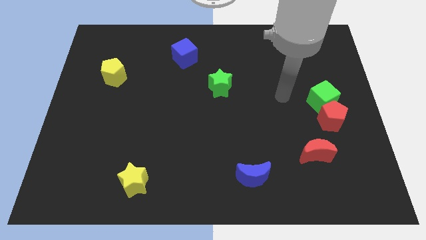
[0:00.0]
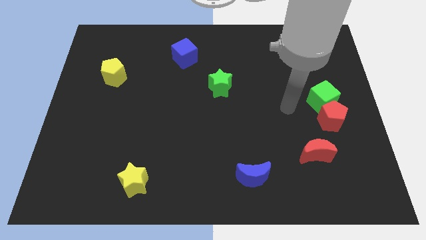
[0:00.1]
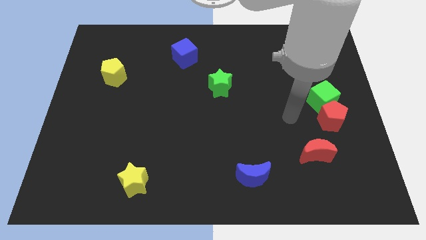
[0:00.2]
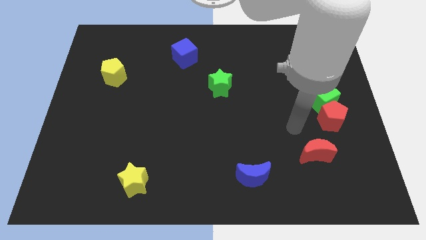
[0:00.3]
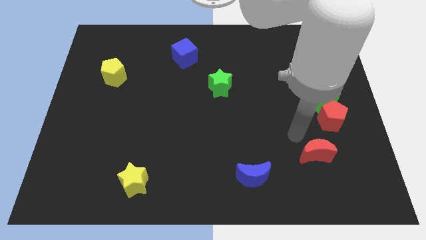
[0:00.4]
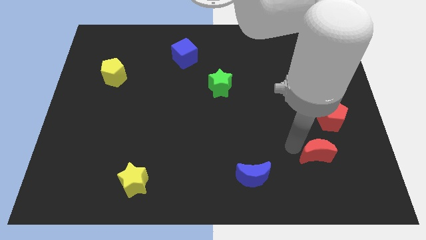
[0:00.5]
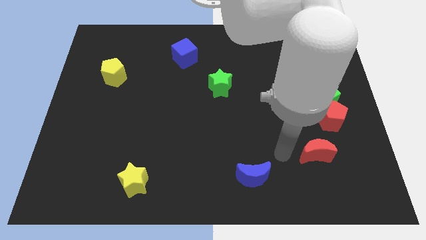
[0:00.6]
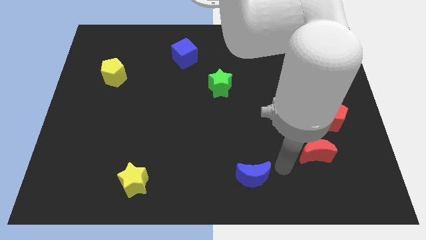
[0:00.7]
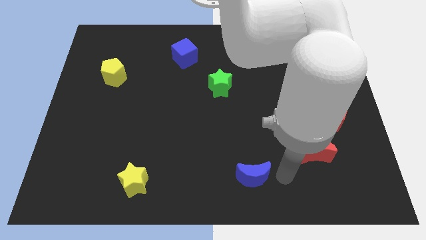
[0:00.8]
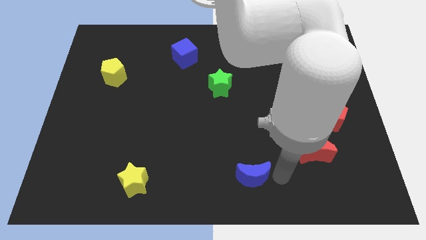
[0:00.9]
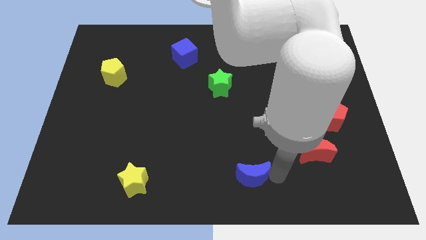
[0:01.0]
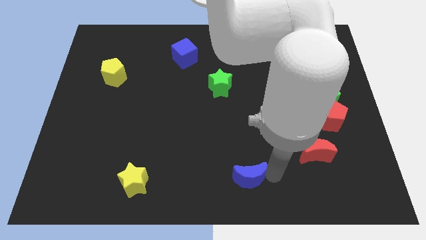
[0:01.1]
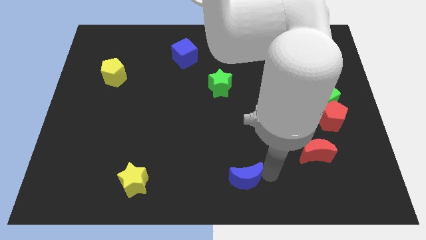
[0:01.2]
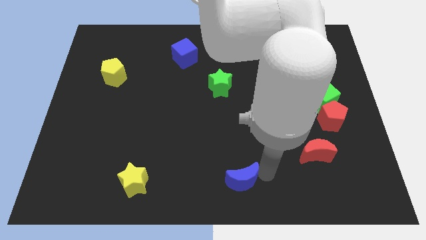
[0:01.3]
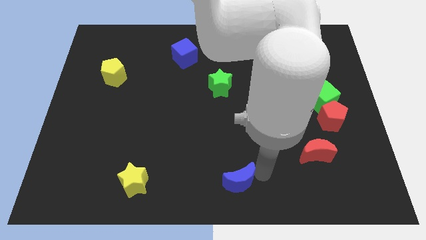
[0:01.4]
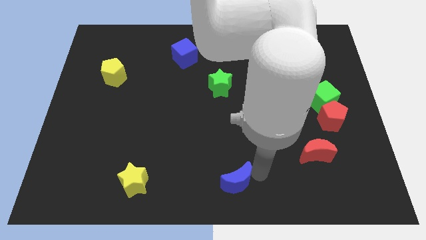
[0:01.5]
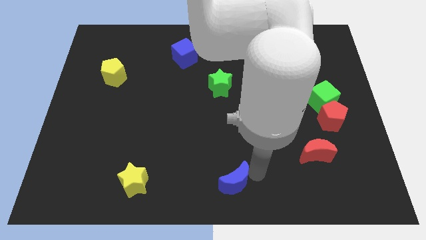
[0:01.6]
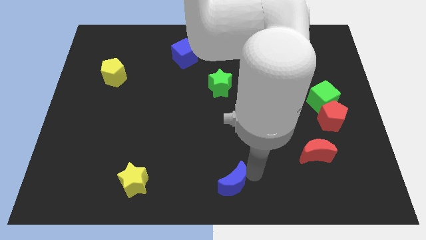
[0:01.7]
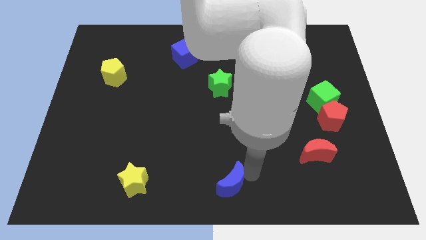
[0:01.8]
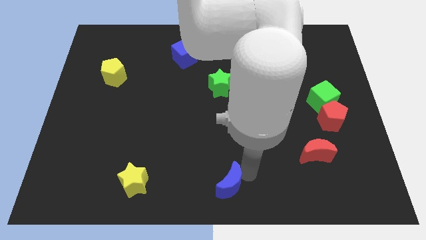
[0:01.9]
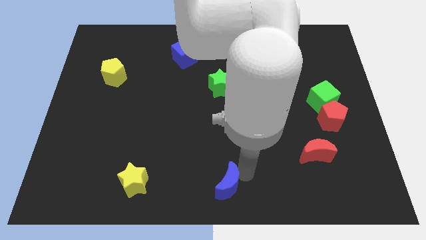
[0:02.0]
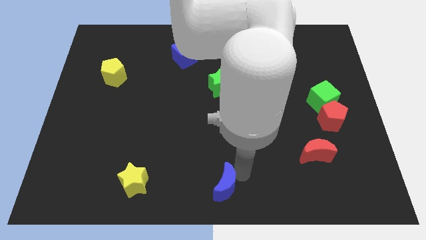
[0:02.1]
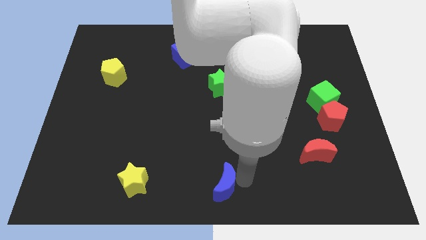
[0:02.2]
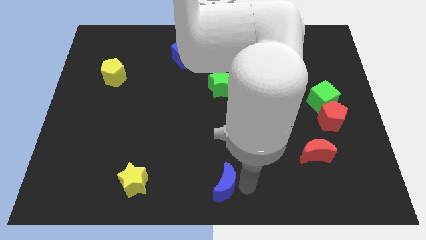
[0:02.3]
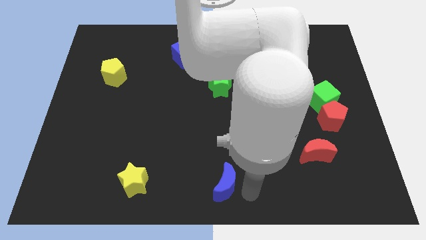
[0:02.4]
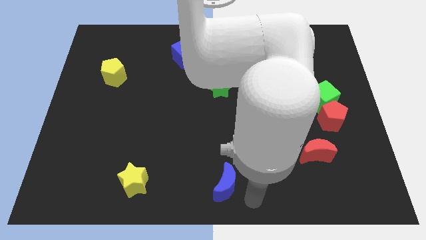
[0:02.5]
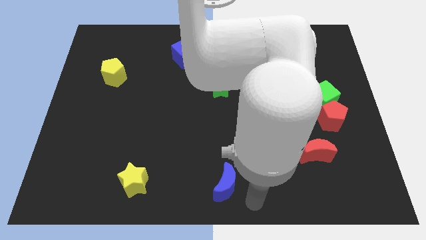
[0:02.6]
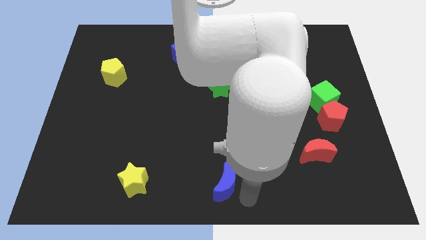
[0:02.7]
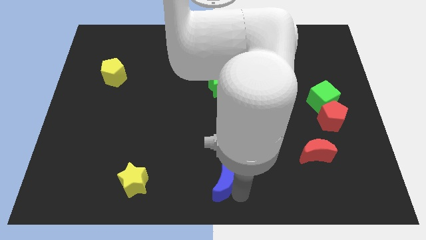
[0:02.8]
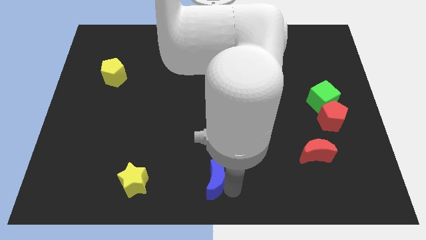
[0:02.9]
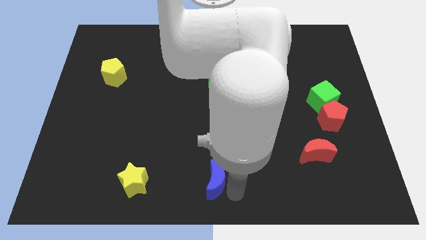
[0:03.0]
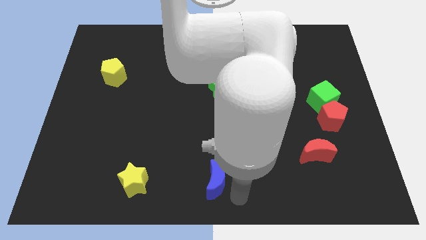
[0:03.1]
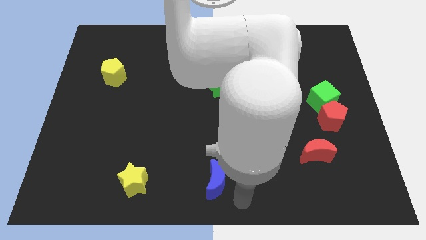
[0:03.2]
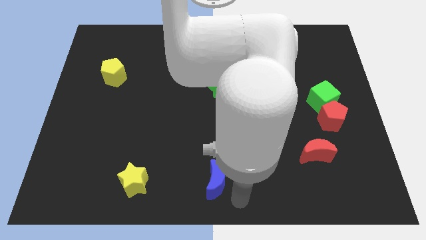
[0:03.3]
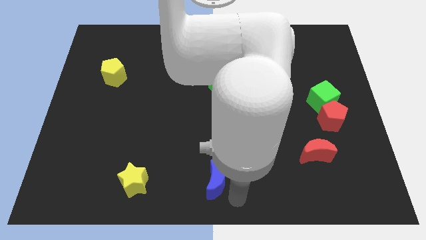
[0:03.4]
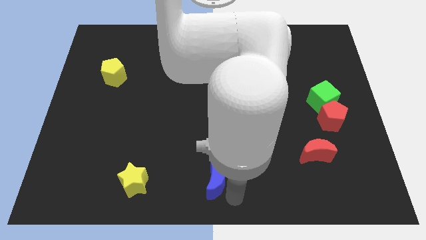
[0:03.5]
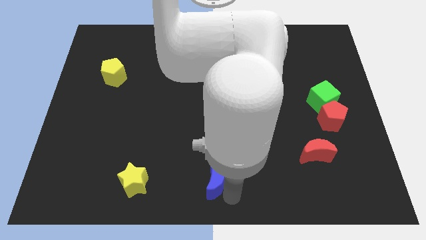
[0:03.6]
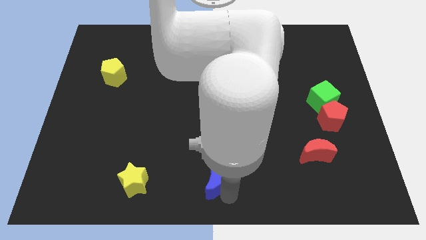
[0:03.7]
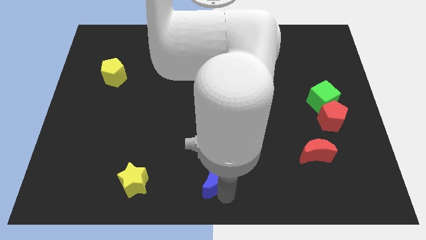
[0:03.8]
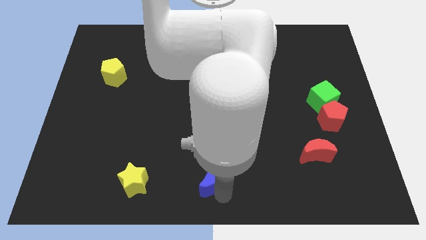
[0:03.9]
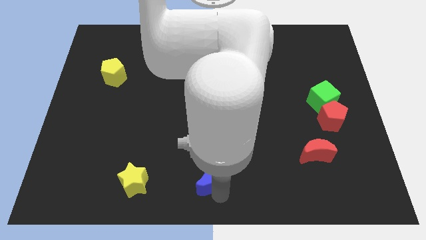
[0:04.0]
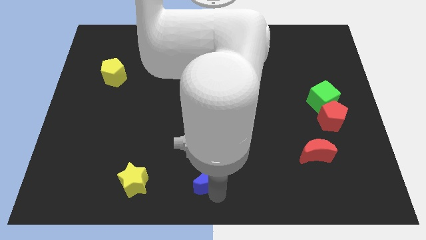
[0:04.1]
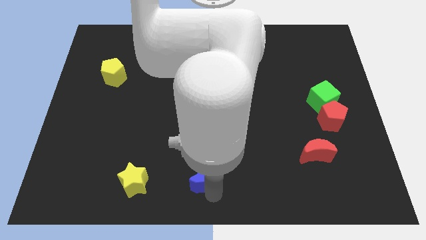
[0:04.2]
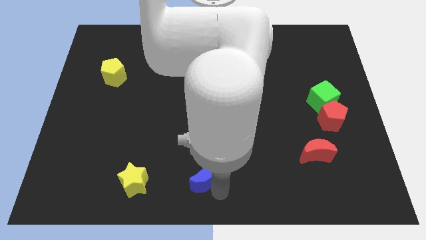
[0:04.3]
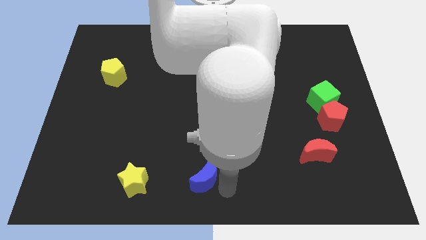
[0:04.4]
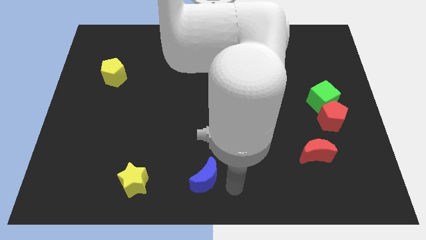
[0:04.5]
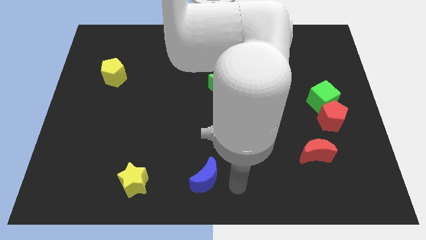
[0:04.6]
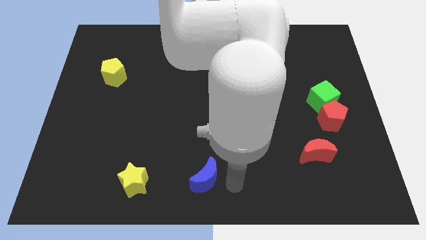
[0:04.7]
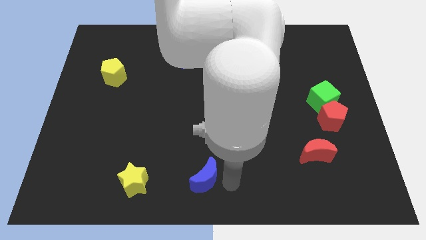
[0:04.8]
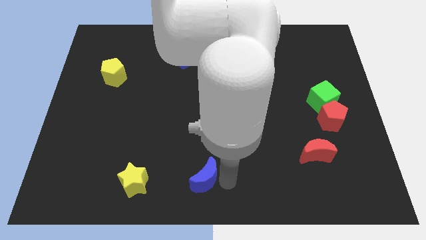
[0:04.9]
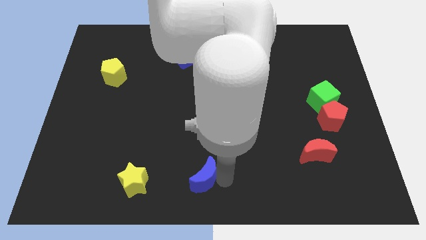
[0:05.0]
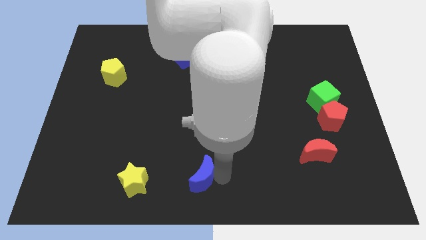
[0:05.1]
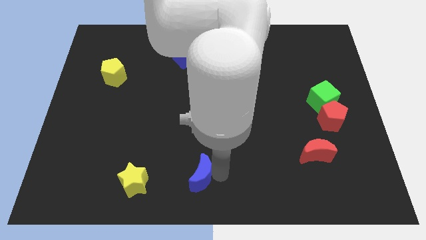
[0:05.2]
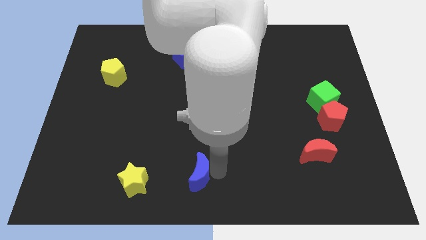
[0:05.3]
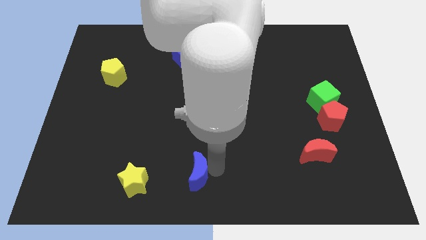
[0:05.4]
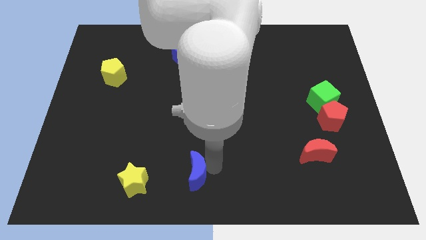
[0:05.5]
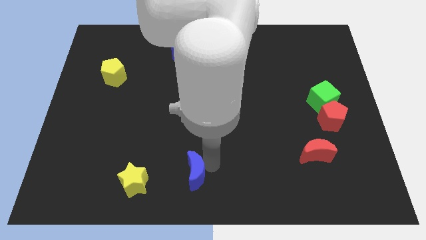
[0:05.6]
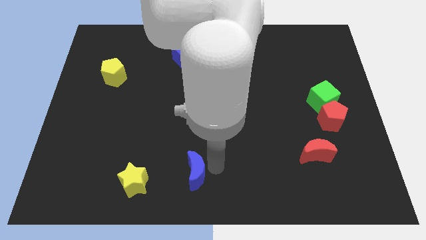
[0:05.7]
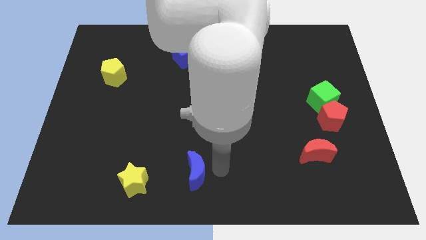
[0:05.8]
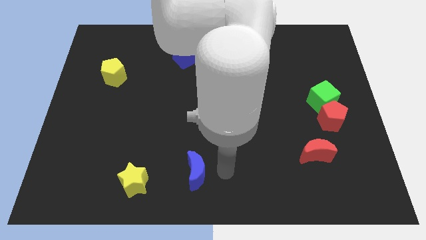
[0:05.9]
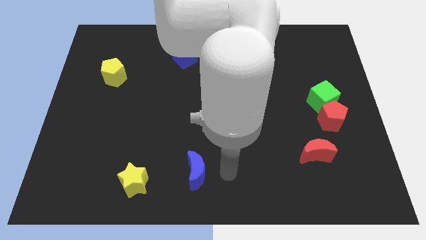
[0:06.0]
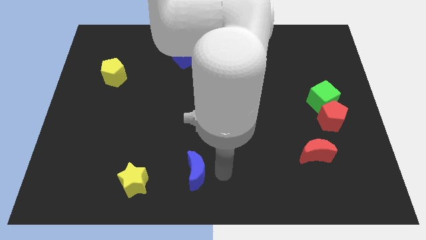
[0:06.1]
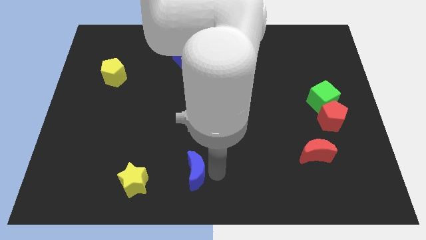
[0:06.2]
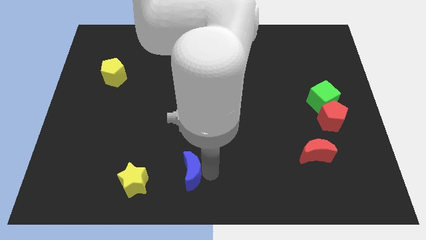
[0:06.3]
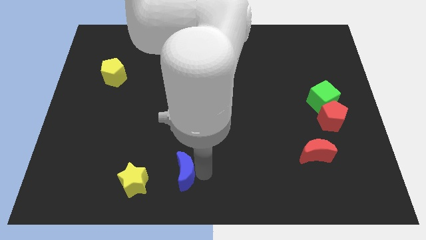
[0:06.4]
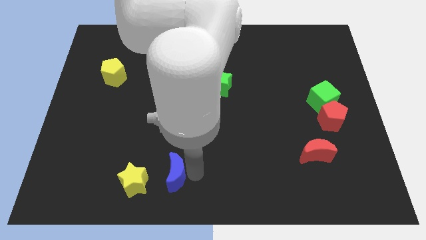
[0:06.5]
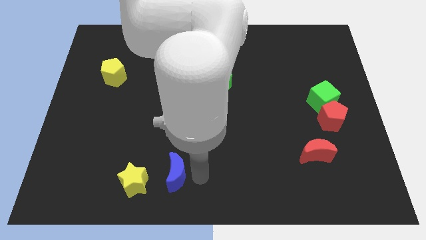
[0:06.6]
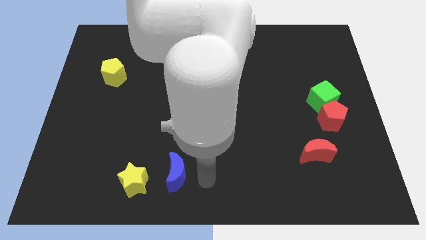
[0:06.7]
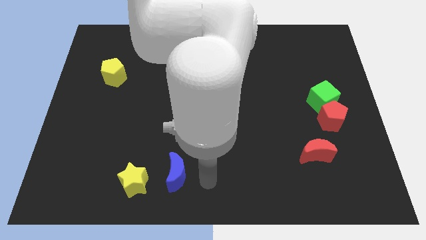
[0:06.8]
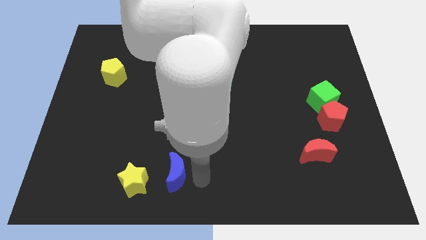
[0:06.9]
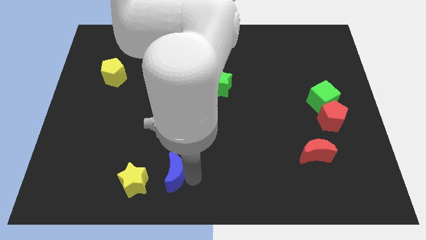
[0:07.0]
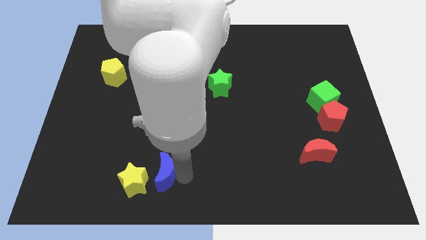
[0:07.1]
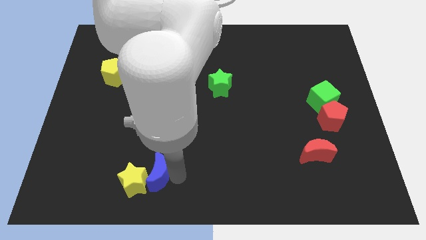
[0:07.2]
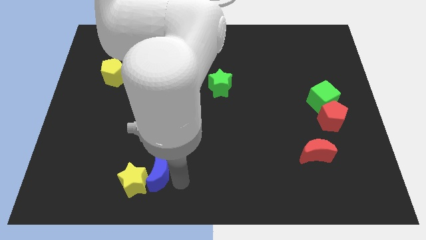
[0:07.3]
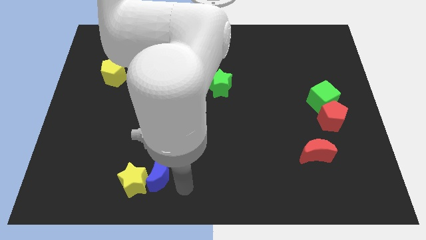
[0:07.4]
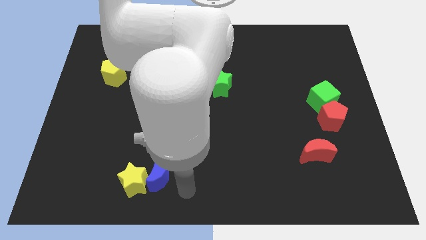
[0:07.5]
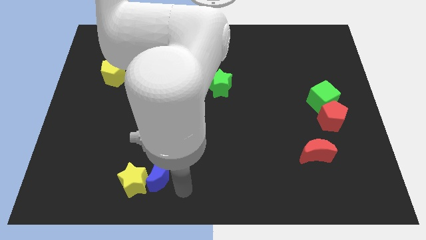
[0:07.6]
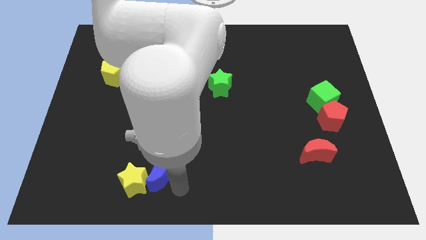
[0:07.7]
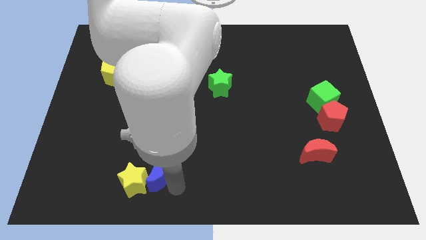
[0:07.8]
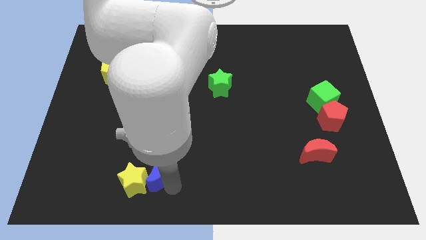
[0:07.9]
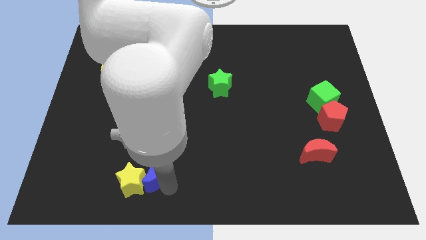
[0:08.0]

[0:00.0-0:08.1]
move the blue moon to the left

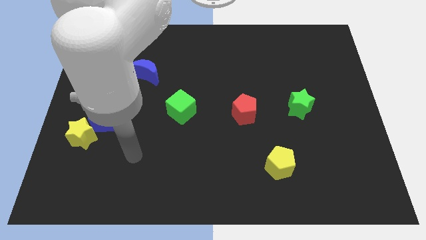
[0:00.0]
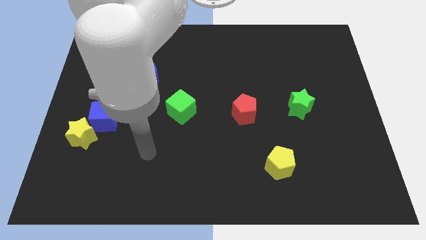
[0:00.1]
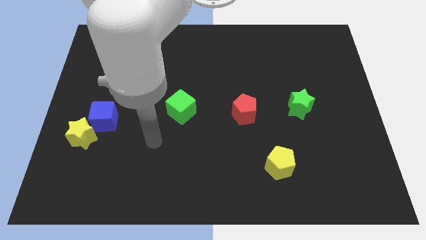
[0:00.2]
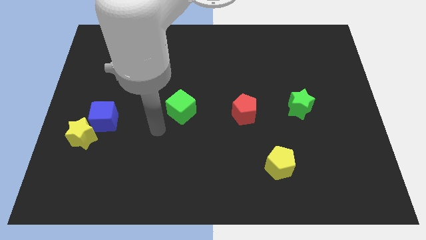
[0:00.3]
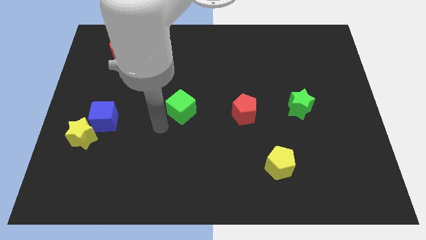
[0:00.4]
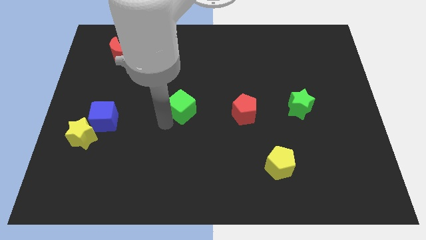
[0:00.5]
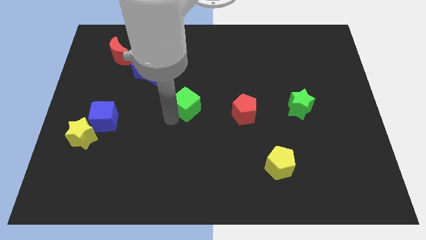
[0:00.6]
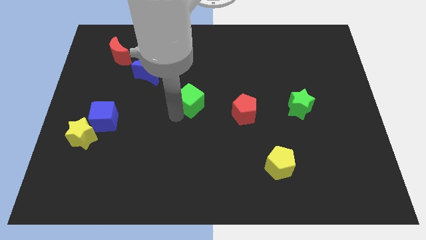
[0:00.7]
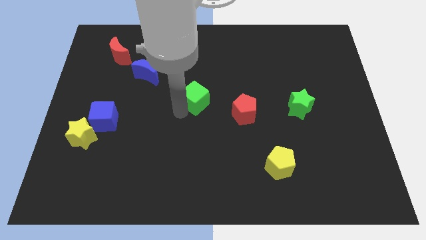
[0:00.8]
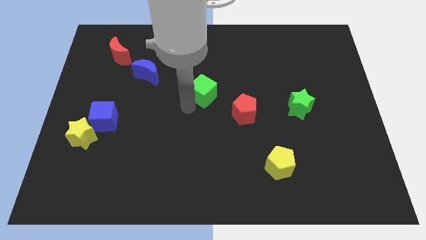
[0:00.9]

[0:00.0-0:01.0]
slide the green cube slightly up and then right
